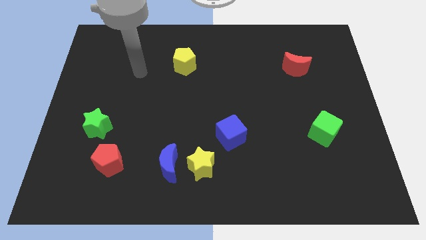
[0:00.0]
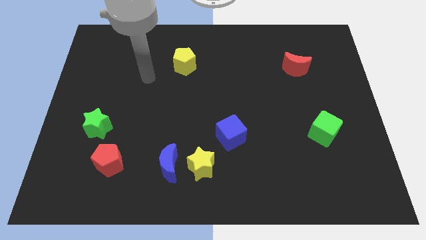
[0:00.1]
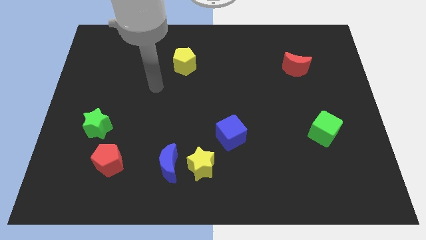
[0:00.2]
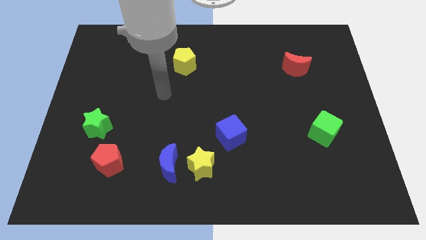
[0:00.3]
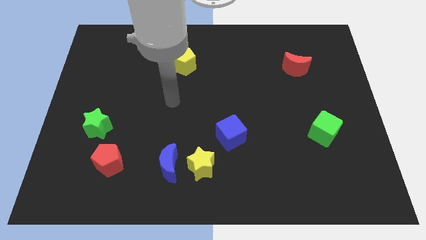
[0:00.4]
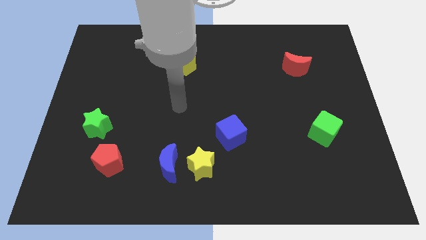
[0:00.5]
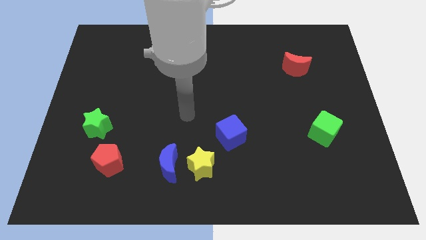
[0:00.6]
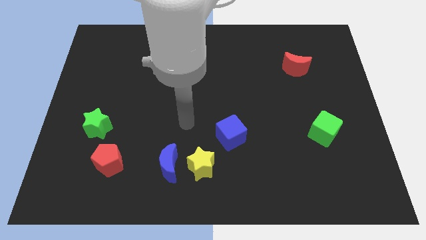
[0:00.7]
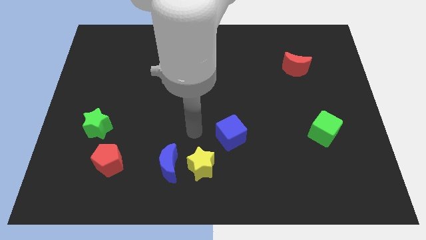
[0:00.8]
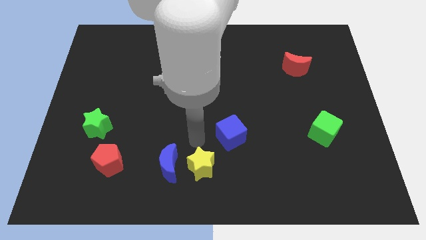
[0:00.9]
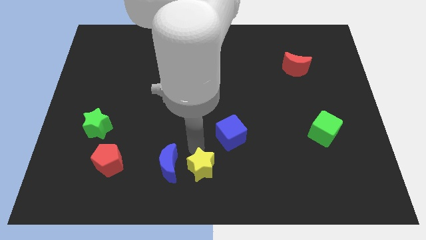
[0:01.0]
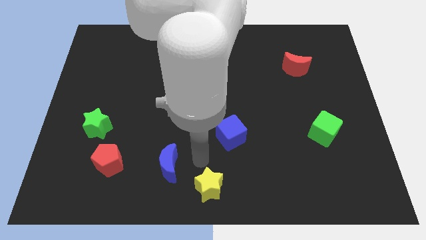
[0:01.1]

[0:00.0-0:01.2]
separate the blue moon from the yellow star

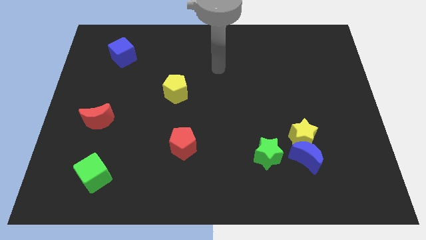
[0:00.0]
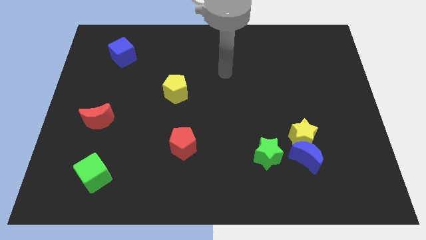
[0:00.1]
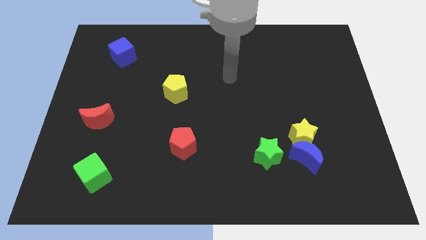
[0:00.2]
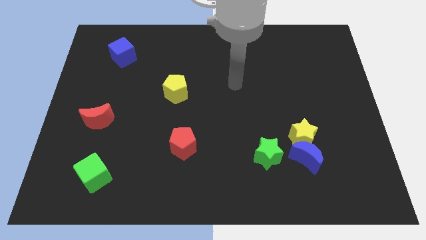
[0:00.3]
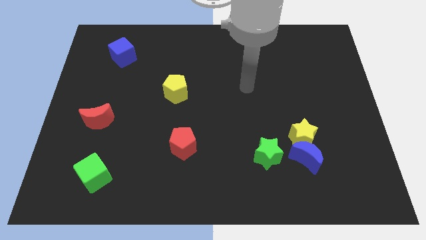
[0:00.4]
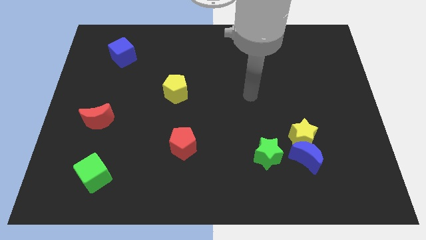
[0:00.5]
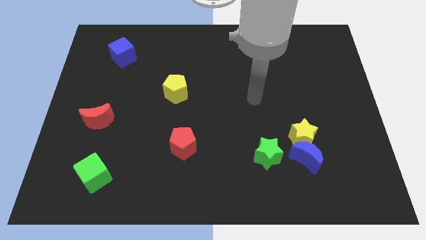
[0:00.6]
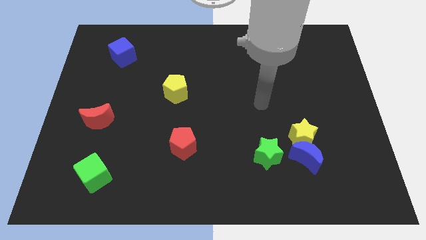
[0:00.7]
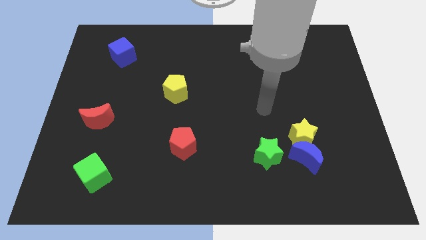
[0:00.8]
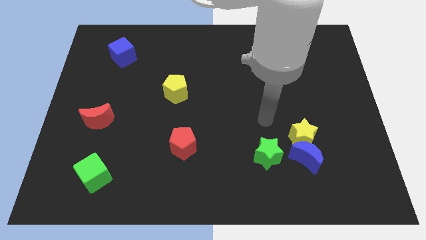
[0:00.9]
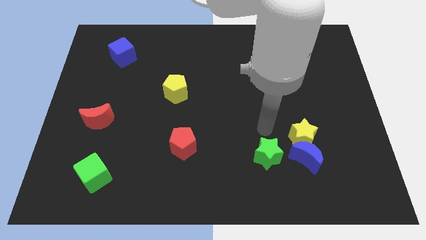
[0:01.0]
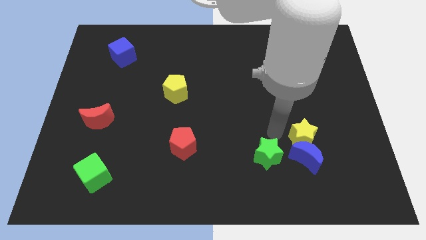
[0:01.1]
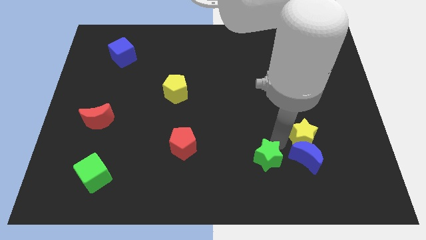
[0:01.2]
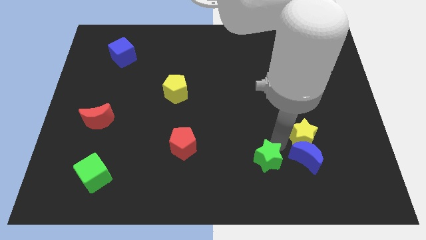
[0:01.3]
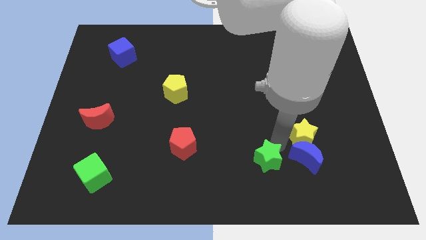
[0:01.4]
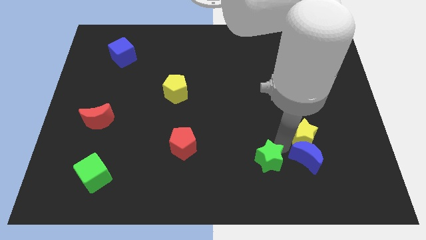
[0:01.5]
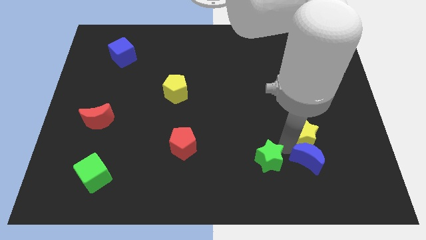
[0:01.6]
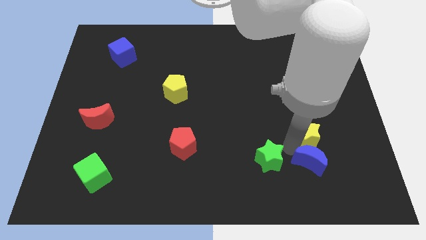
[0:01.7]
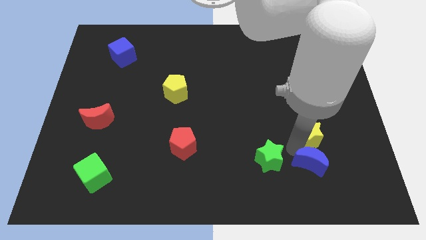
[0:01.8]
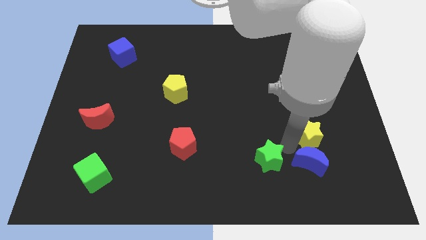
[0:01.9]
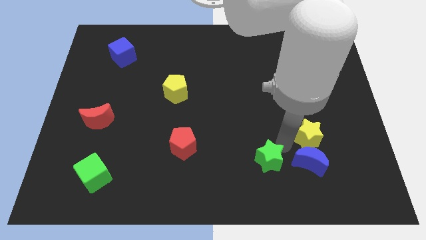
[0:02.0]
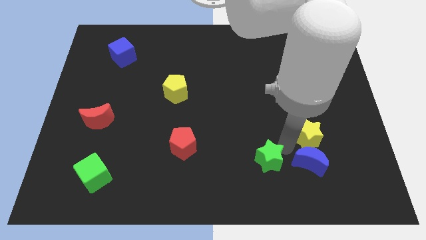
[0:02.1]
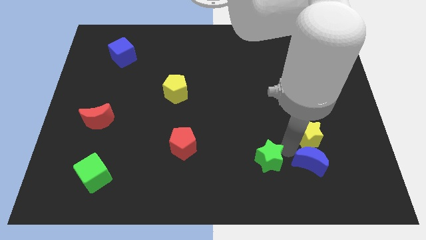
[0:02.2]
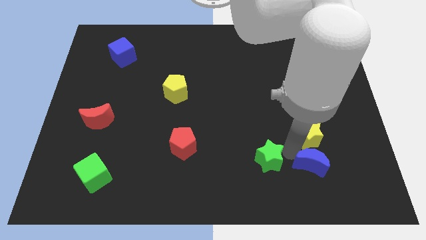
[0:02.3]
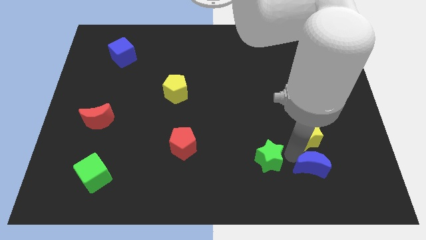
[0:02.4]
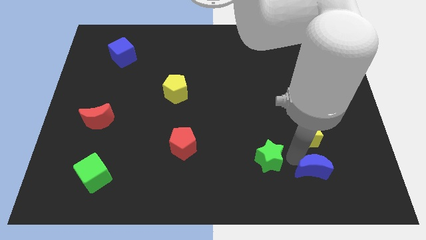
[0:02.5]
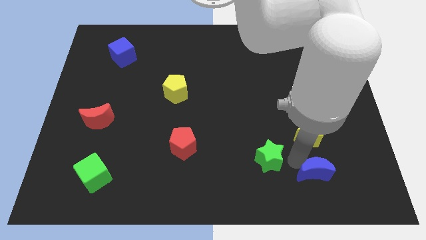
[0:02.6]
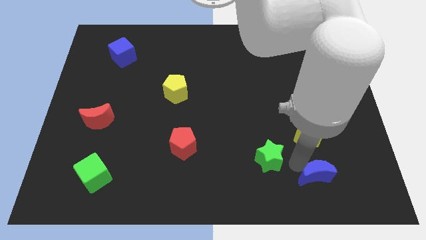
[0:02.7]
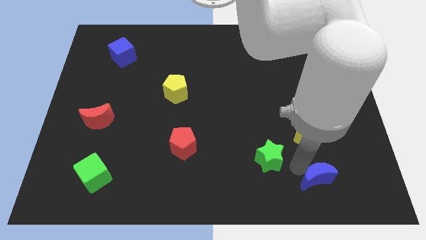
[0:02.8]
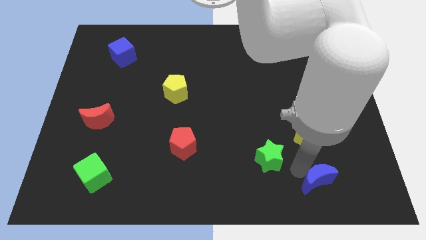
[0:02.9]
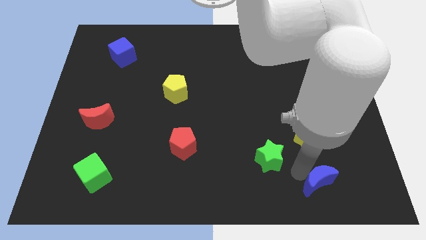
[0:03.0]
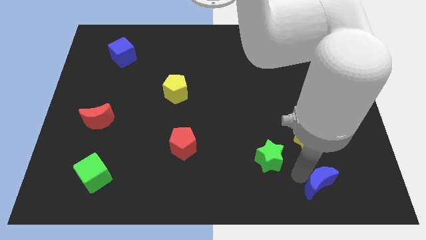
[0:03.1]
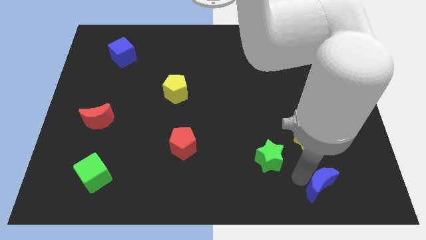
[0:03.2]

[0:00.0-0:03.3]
pull the blue moon apart from the yellow star and green star

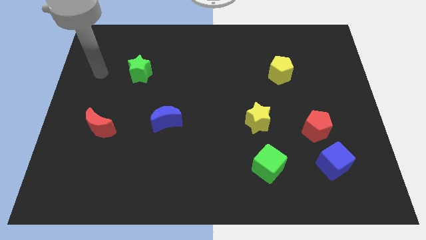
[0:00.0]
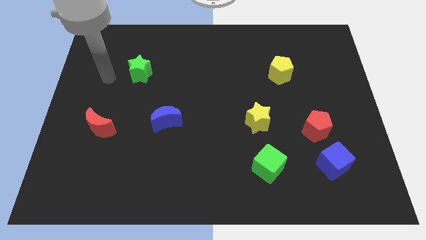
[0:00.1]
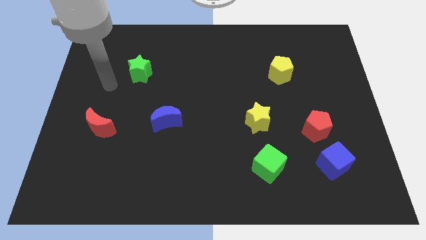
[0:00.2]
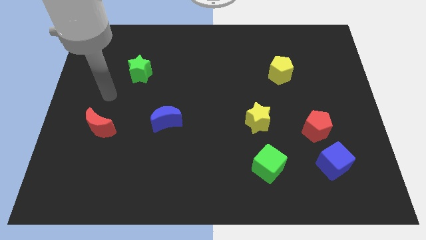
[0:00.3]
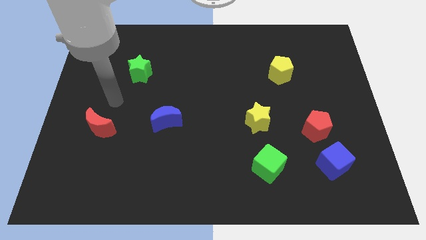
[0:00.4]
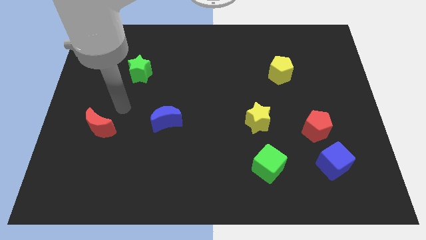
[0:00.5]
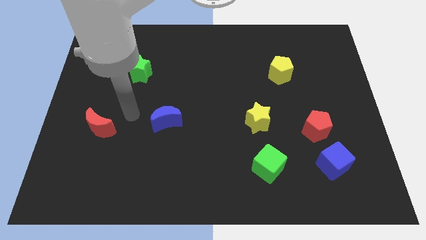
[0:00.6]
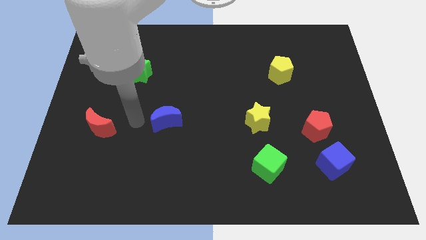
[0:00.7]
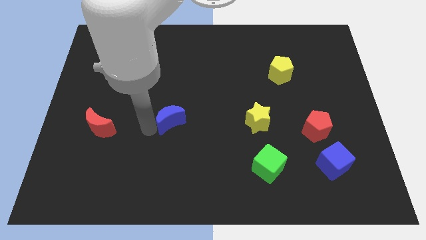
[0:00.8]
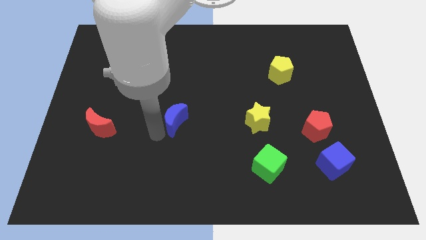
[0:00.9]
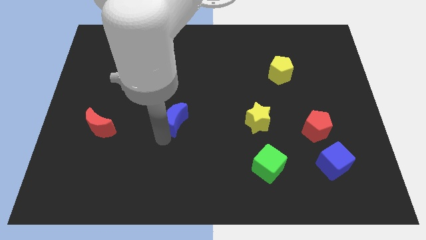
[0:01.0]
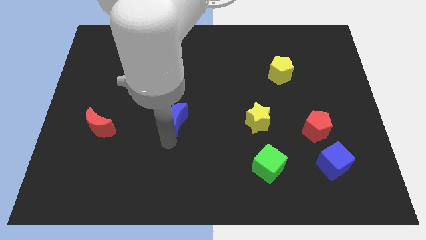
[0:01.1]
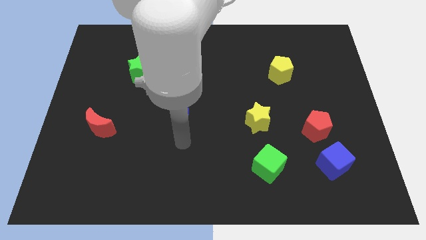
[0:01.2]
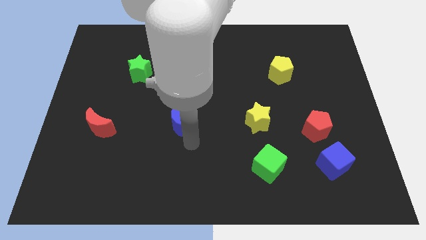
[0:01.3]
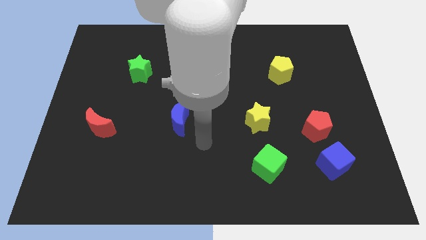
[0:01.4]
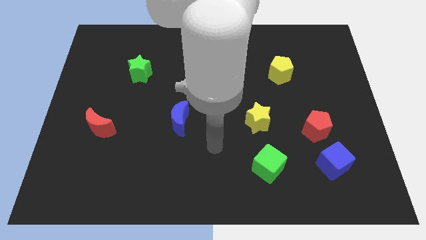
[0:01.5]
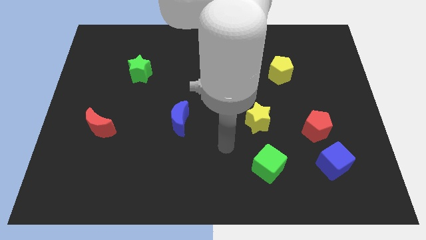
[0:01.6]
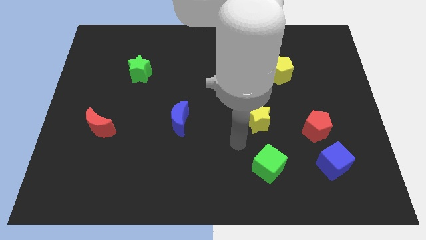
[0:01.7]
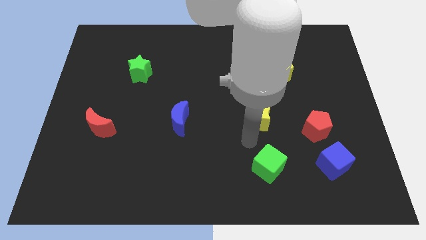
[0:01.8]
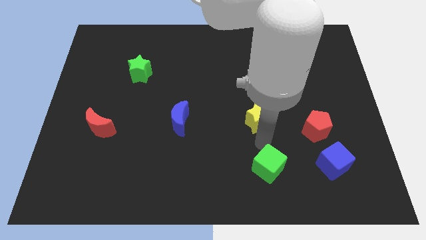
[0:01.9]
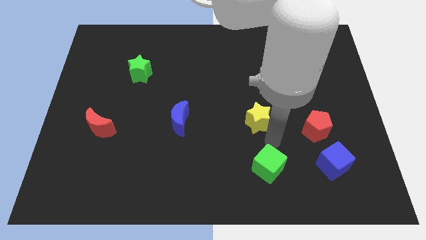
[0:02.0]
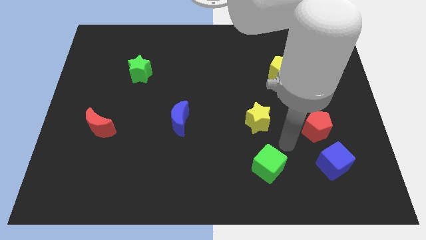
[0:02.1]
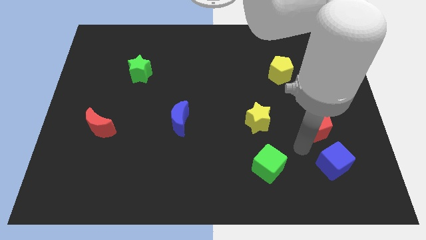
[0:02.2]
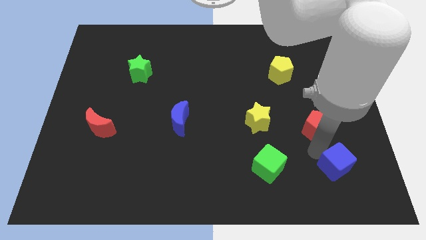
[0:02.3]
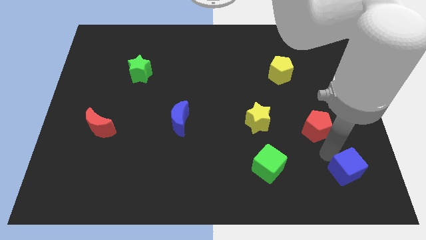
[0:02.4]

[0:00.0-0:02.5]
separate the red pentagon from the blue cube

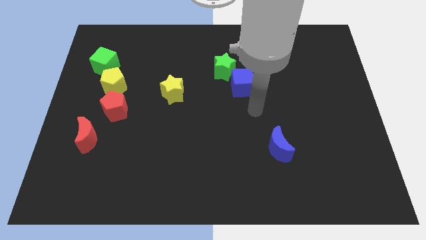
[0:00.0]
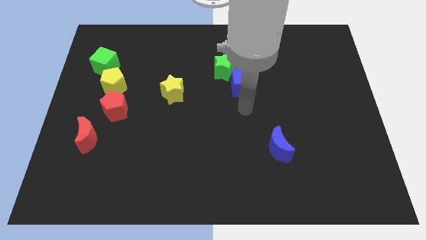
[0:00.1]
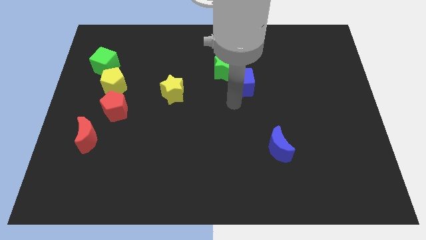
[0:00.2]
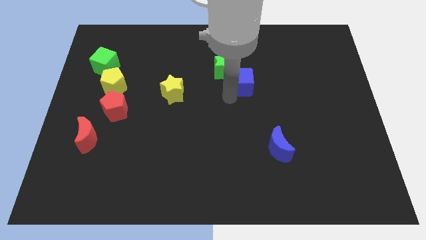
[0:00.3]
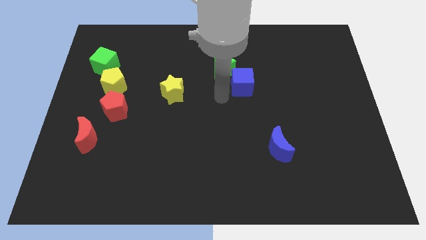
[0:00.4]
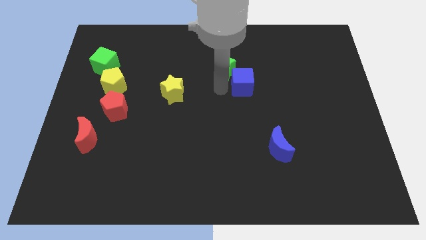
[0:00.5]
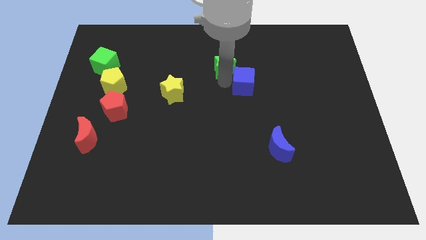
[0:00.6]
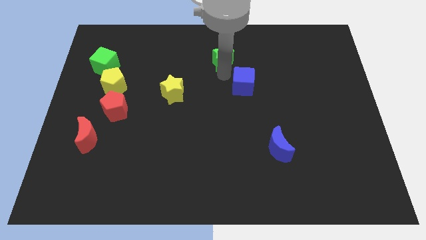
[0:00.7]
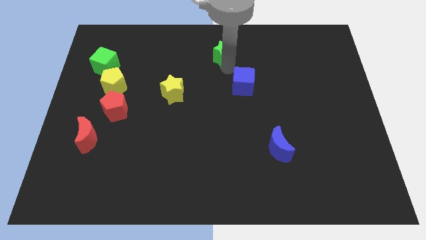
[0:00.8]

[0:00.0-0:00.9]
move the blue cube away from the green star

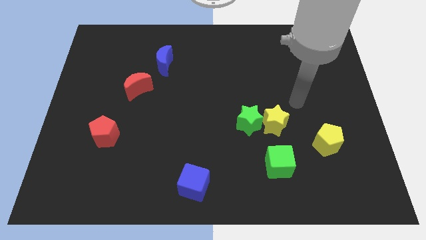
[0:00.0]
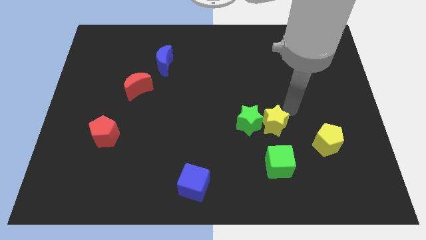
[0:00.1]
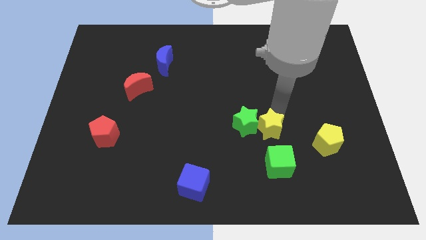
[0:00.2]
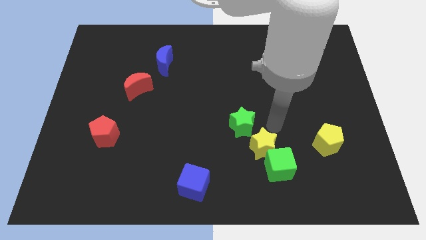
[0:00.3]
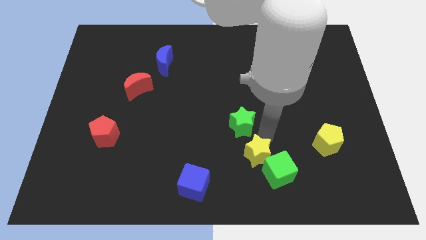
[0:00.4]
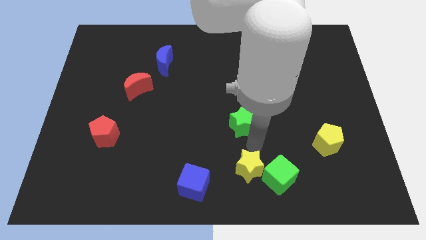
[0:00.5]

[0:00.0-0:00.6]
separate the green star from the yellow star

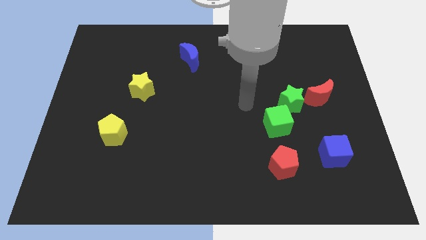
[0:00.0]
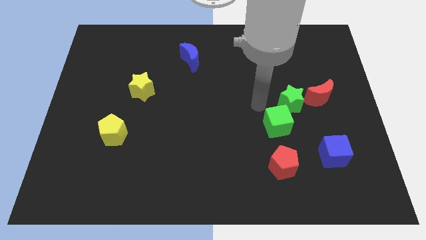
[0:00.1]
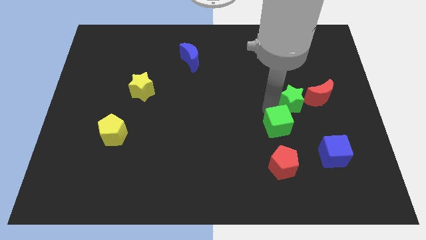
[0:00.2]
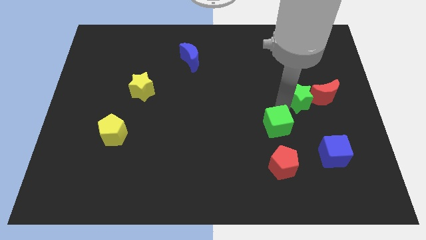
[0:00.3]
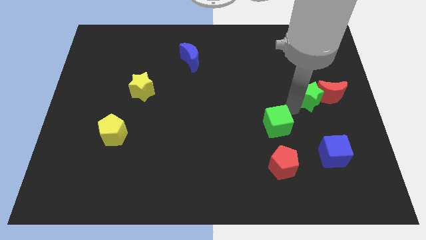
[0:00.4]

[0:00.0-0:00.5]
pull the green cube apart from the green star

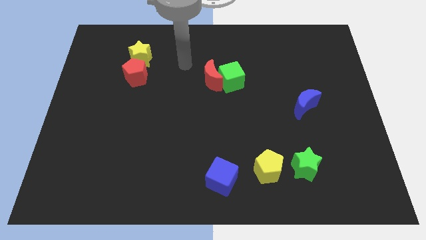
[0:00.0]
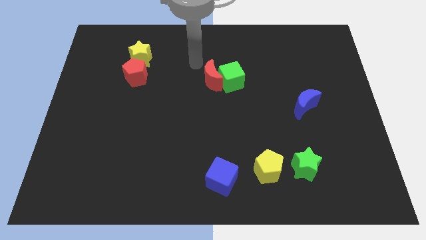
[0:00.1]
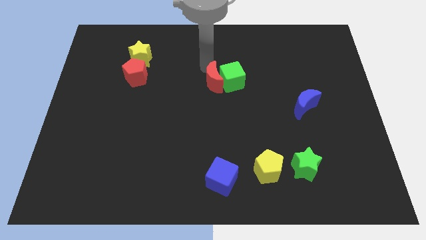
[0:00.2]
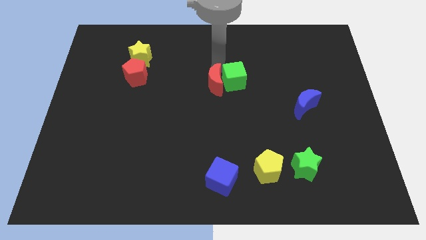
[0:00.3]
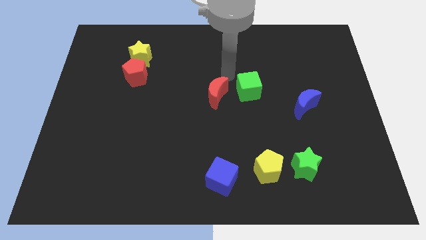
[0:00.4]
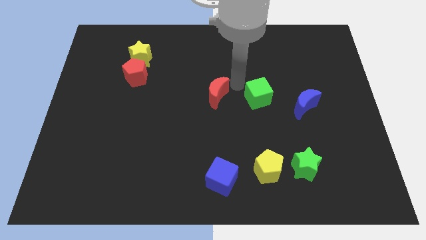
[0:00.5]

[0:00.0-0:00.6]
separate the red moon from the green cube
